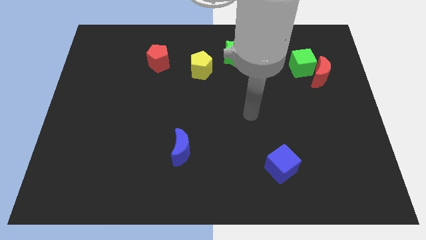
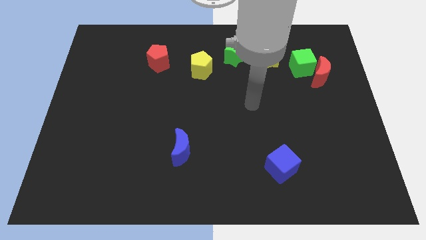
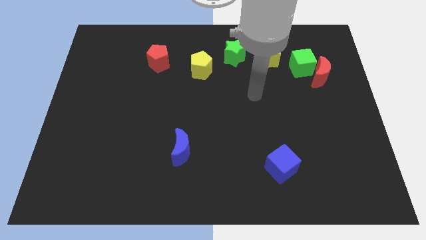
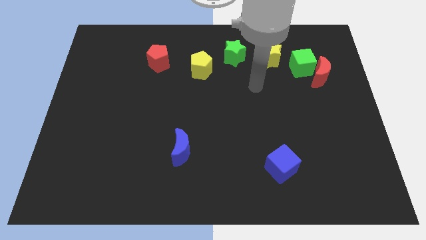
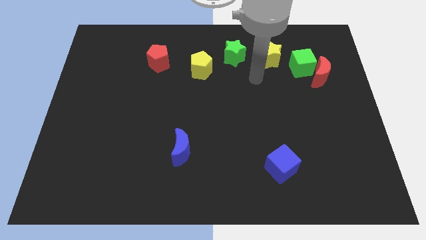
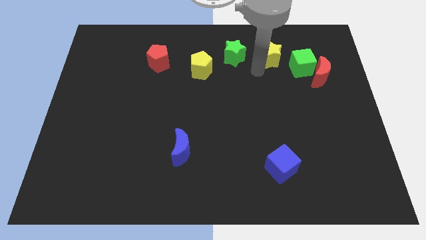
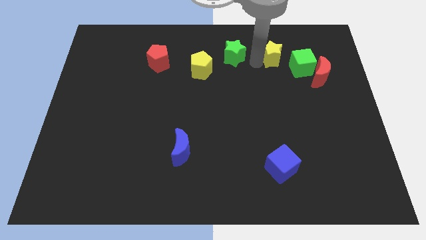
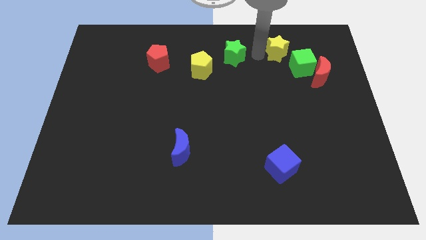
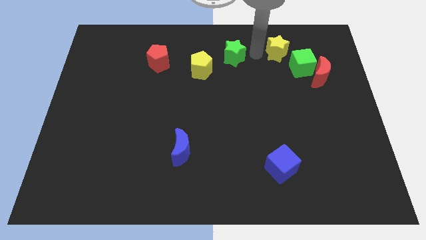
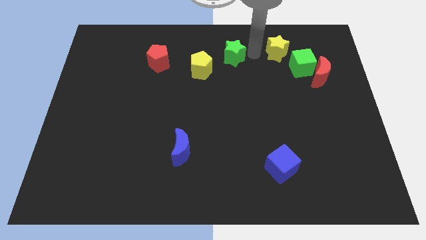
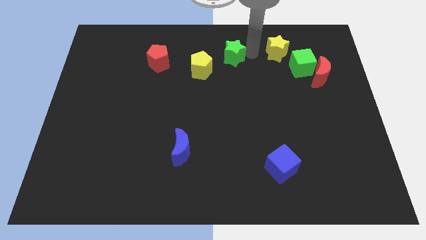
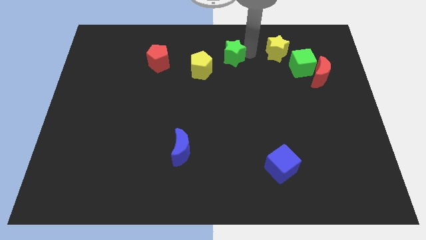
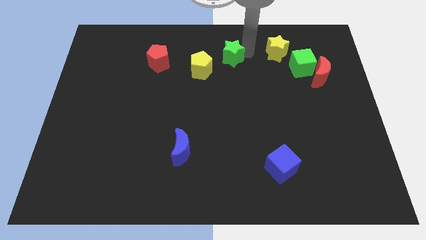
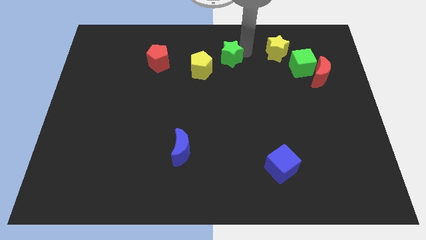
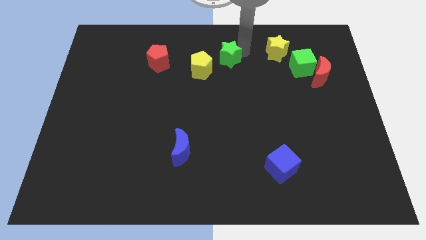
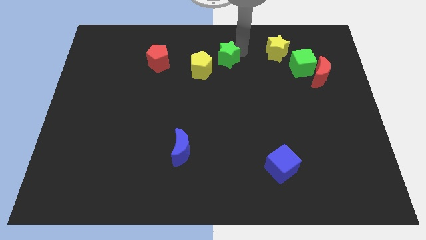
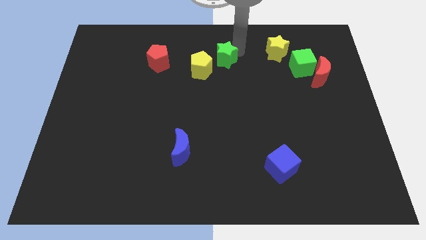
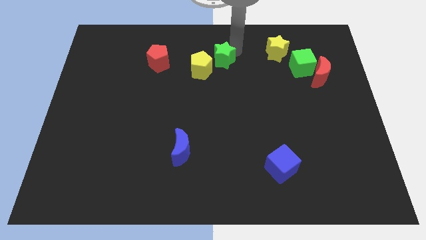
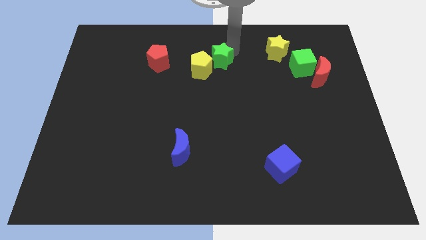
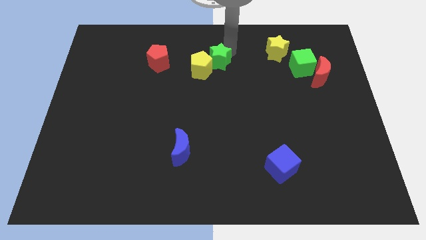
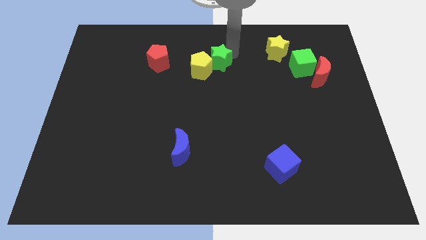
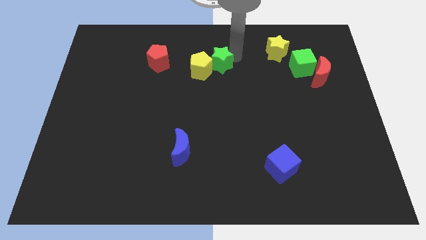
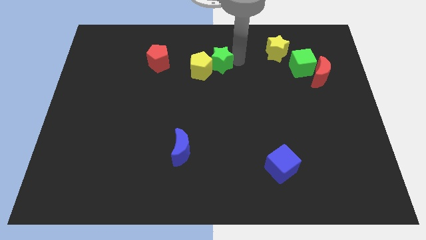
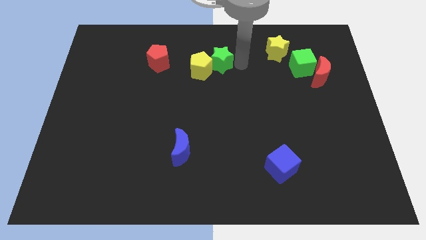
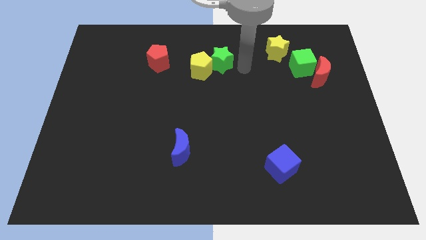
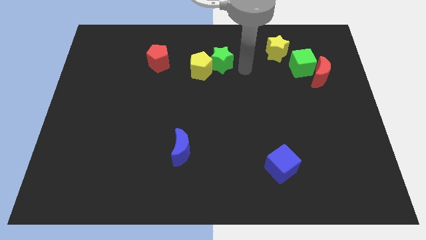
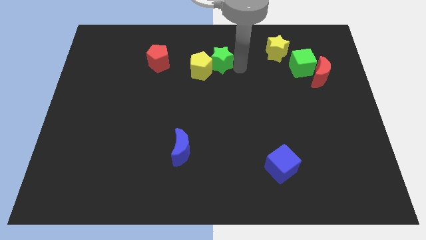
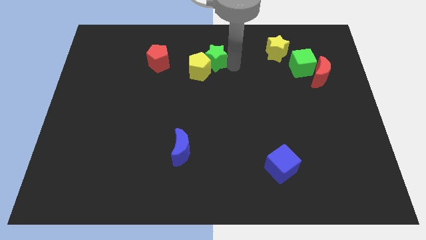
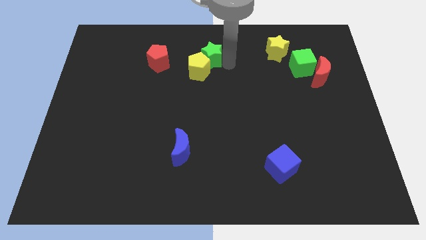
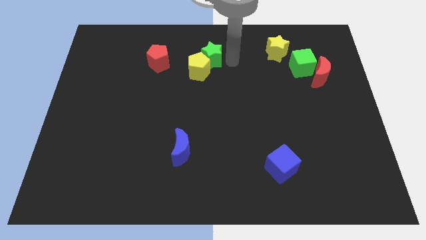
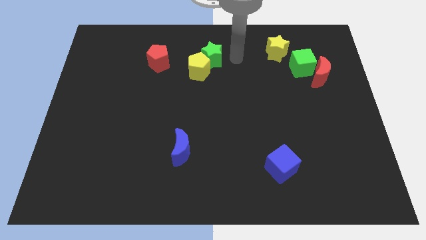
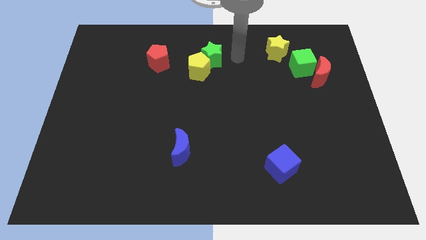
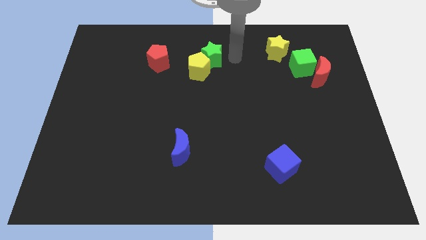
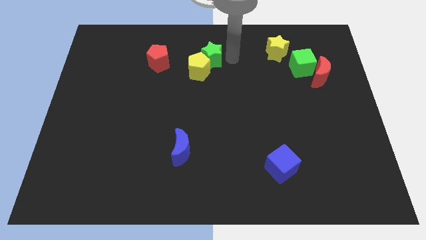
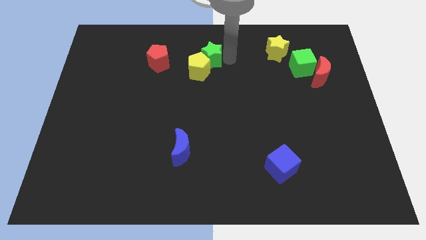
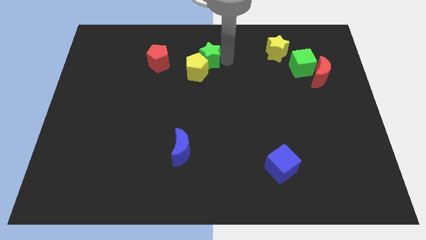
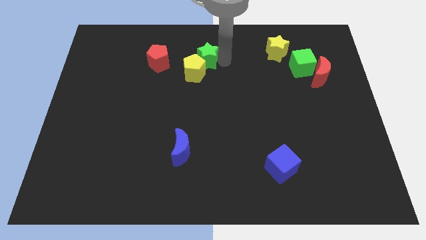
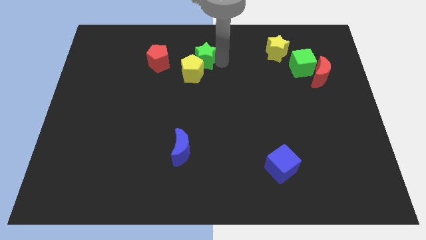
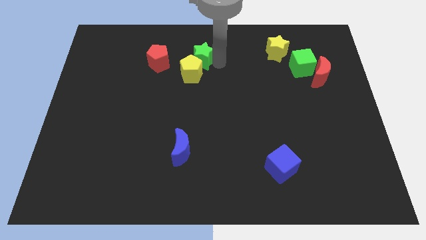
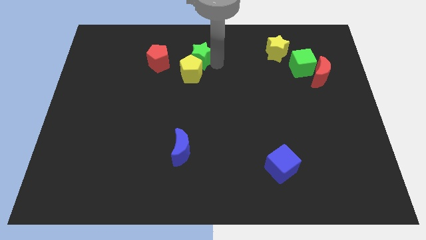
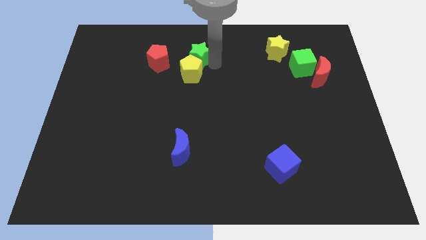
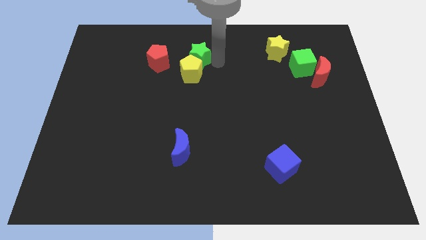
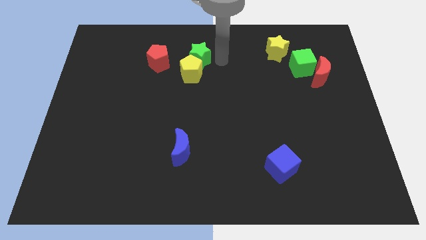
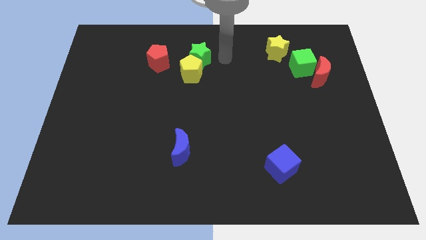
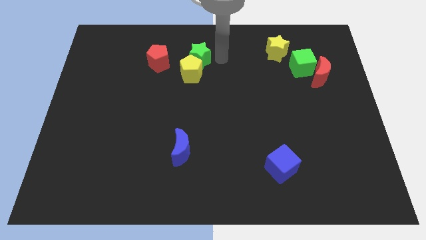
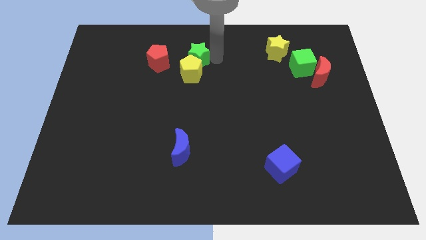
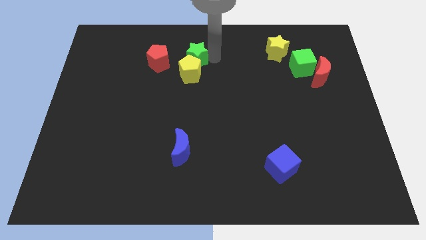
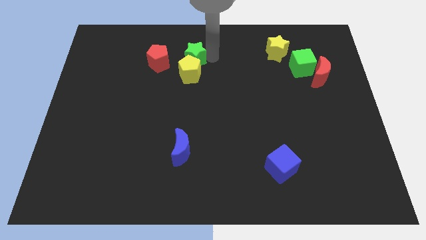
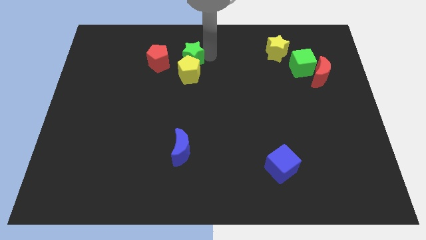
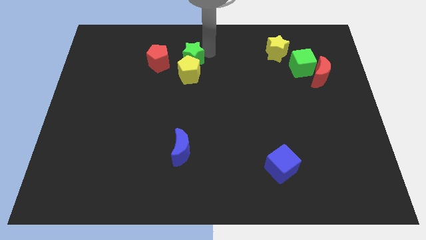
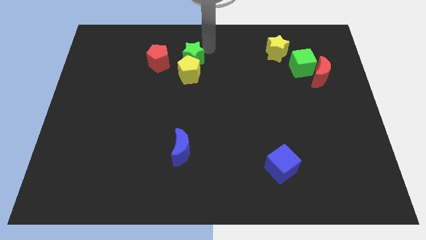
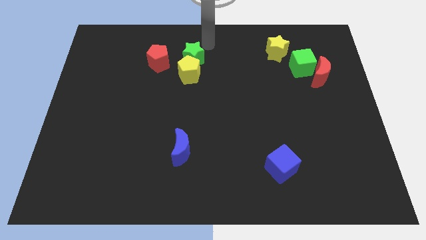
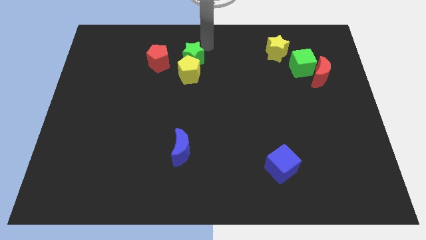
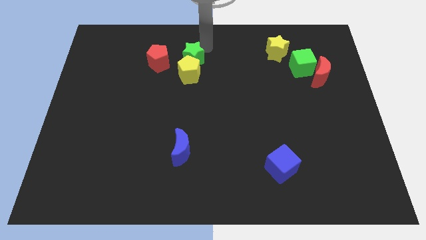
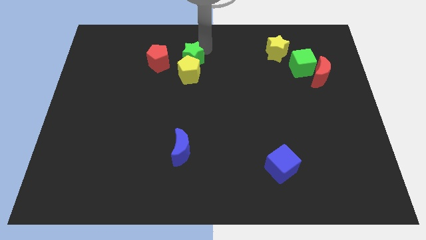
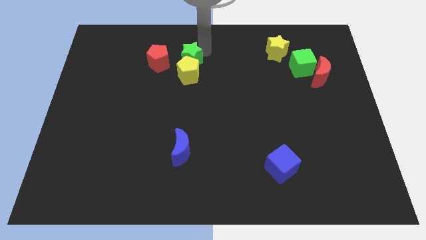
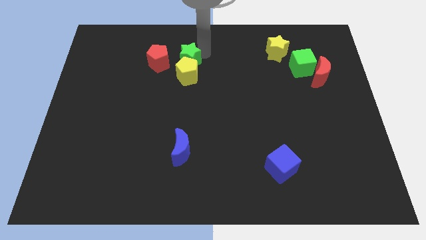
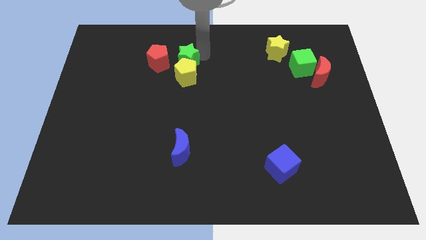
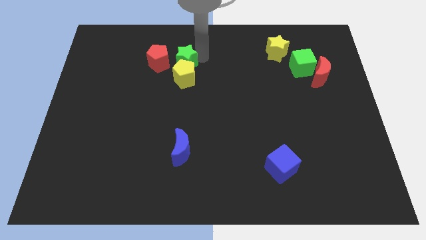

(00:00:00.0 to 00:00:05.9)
push the green star to the bottom right side of the red pentagon

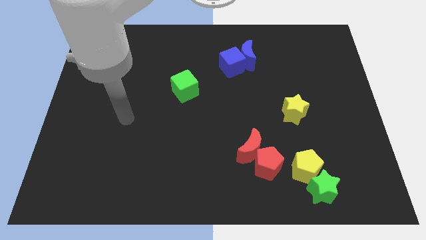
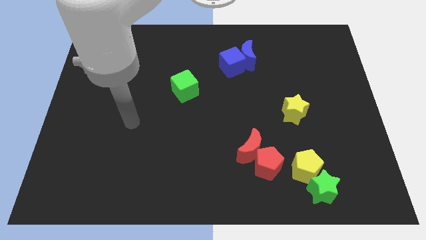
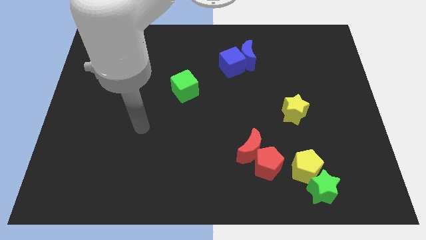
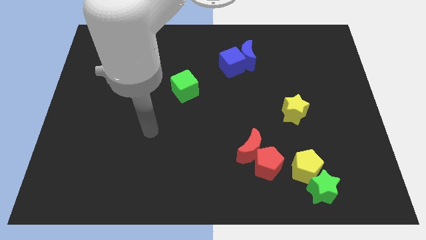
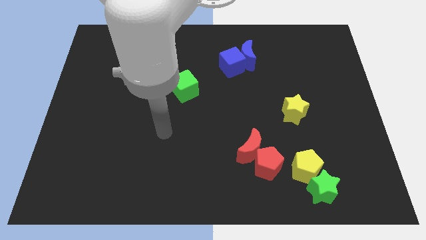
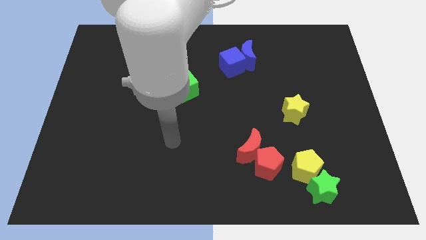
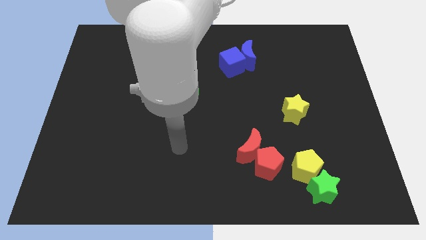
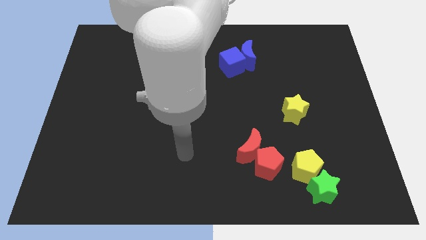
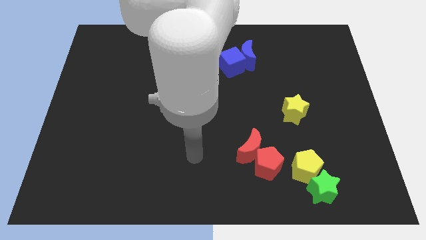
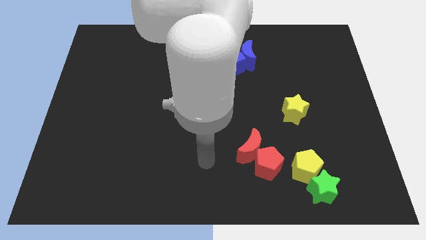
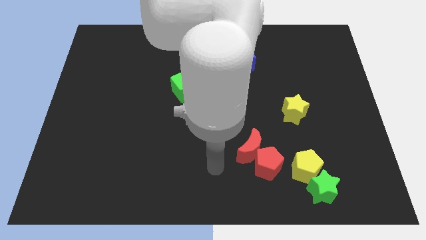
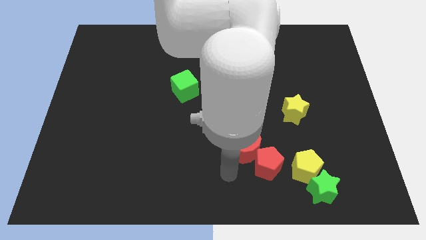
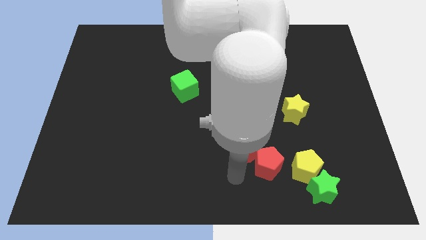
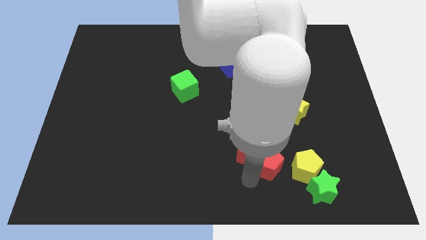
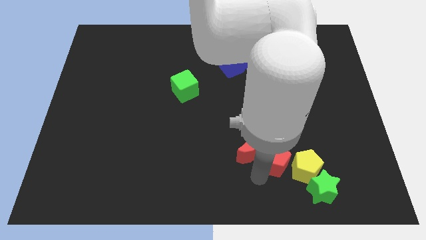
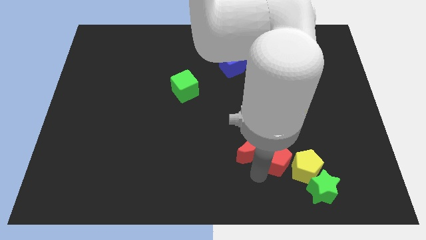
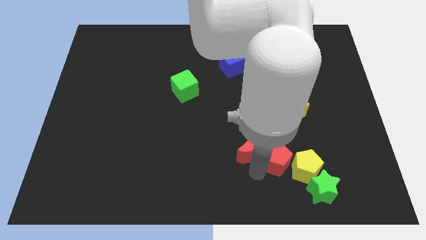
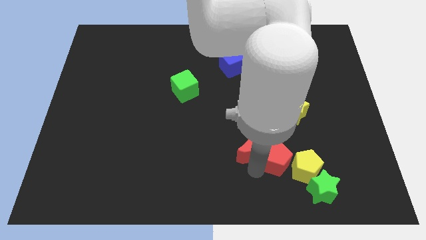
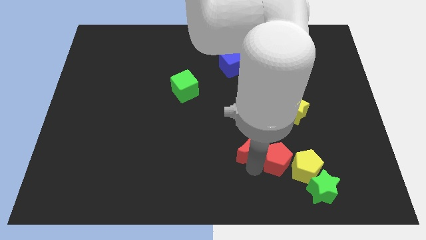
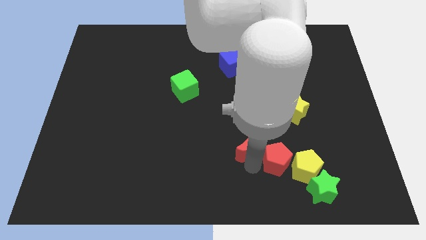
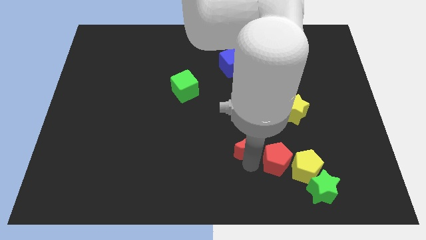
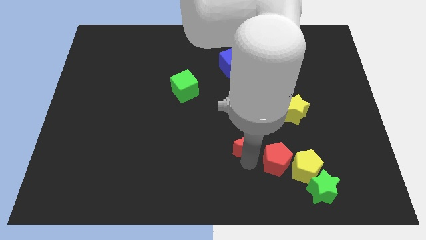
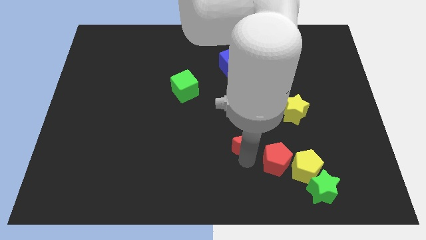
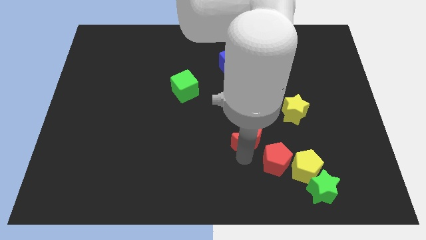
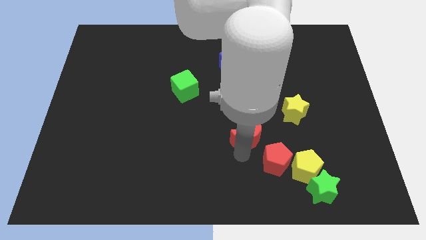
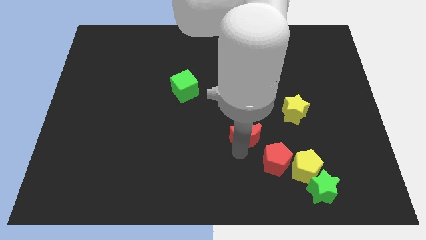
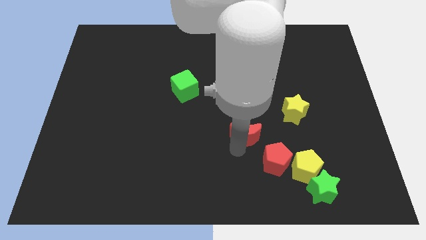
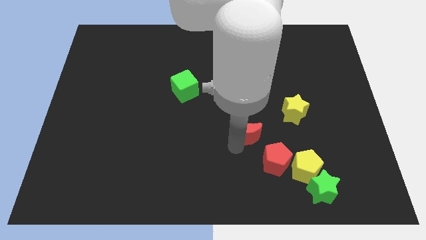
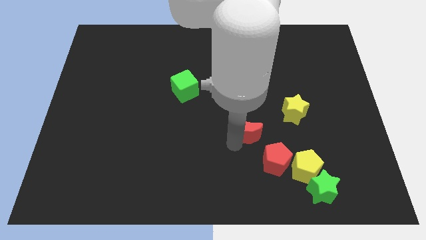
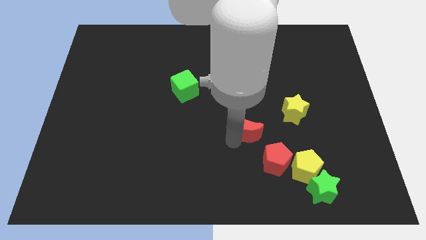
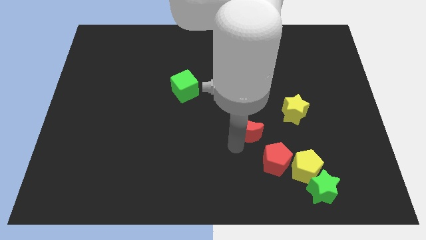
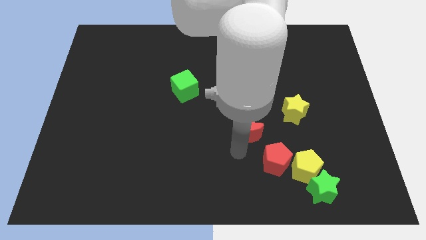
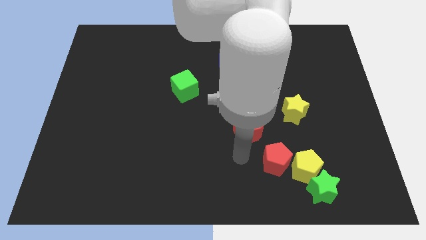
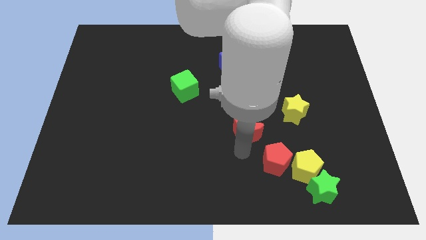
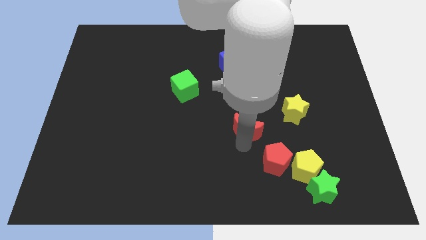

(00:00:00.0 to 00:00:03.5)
put the red moon left of the yellow star
